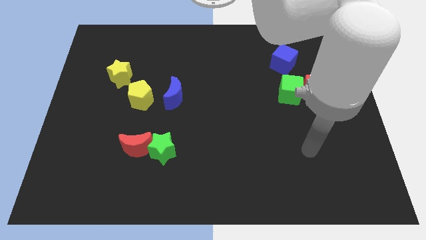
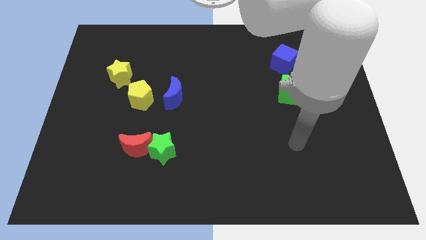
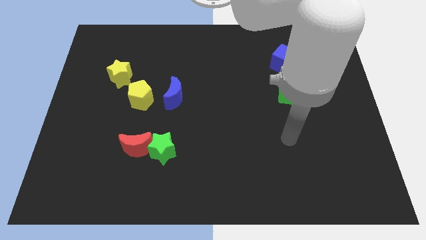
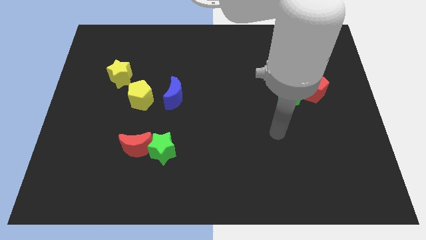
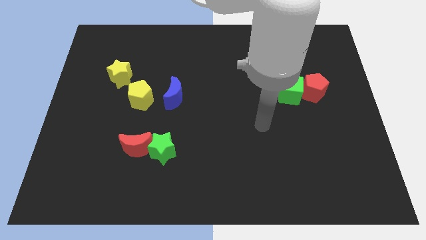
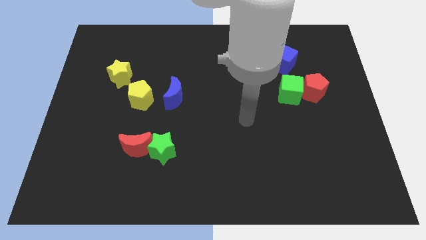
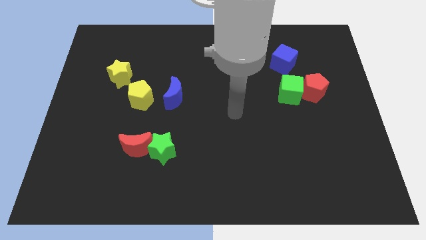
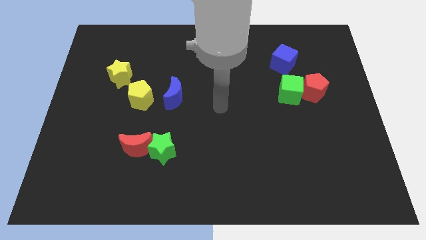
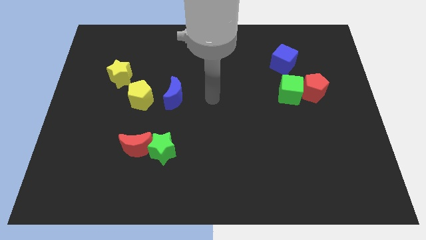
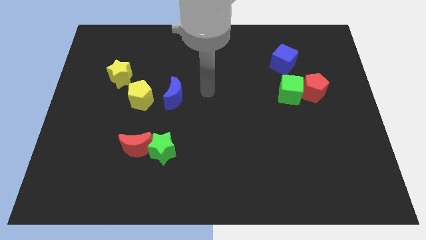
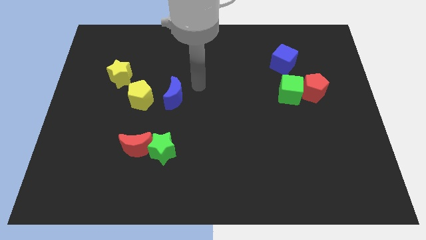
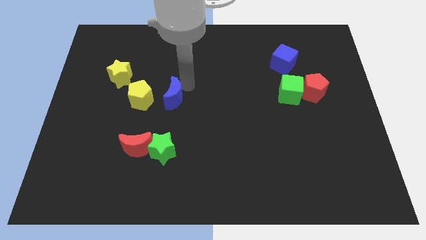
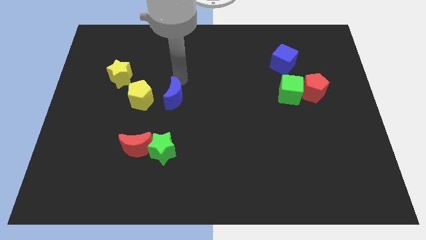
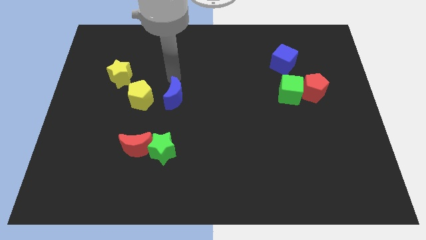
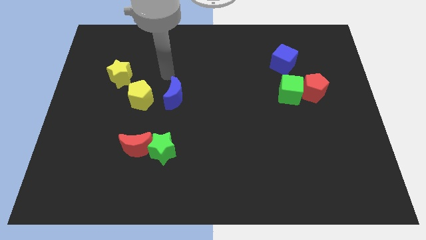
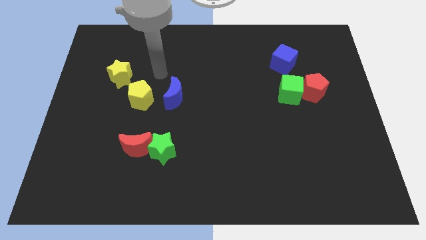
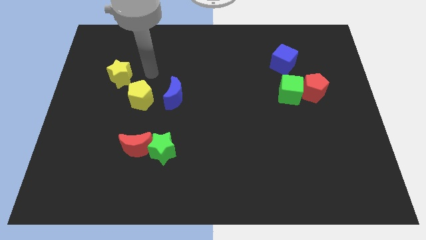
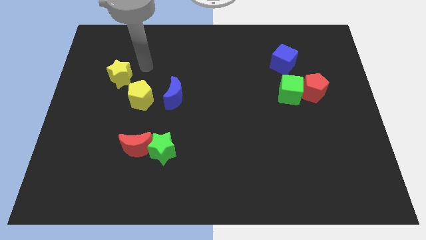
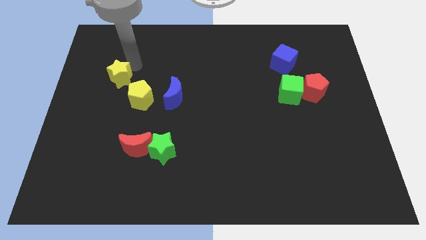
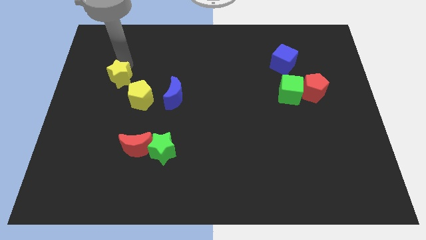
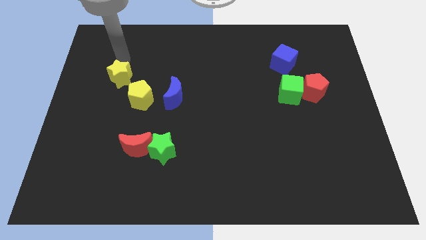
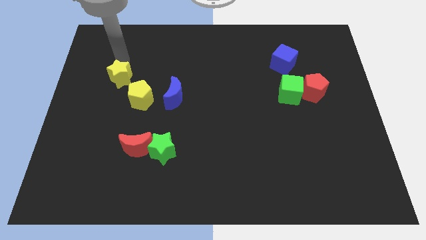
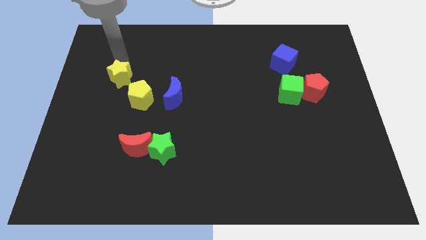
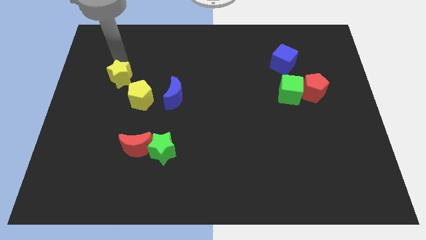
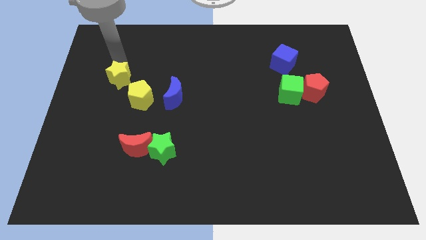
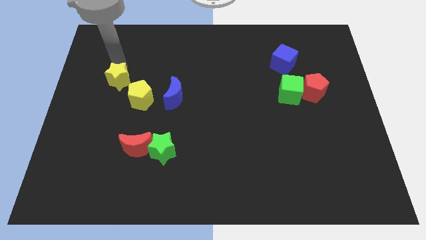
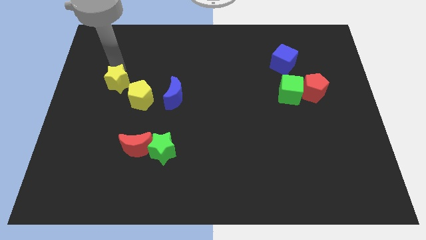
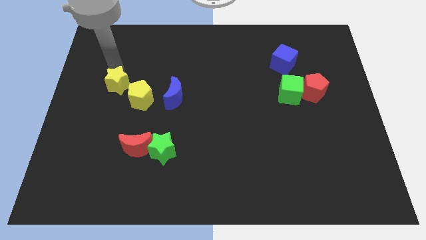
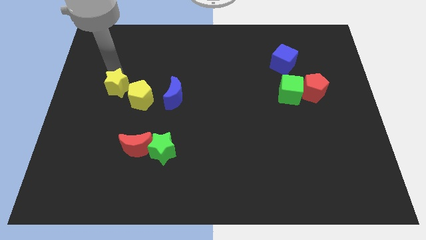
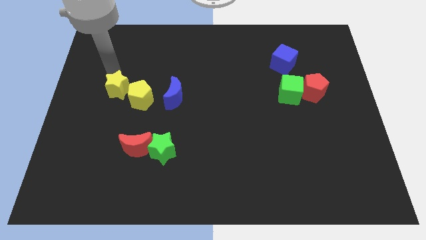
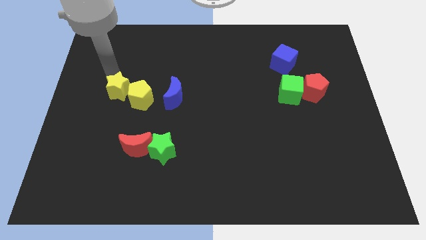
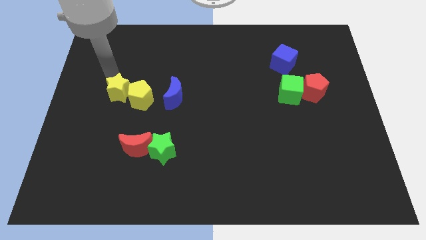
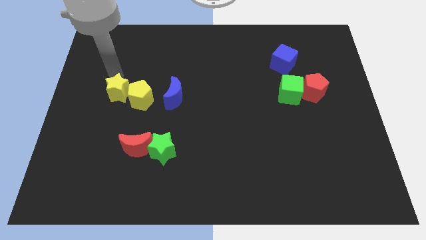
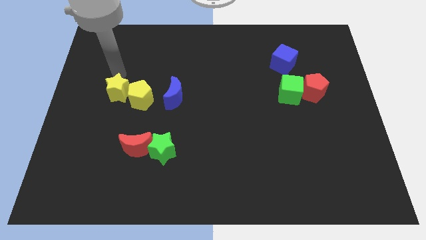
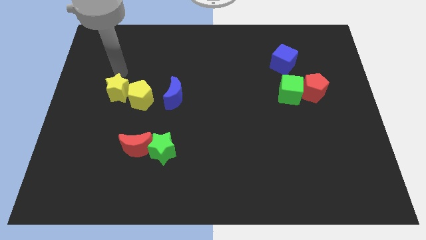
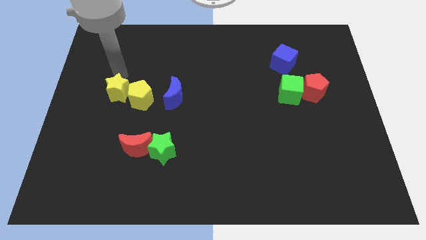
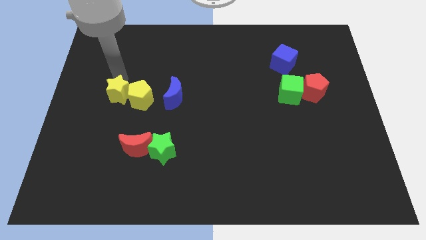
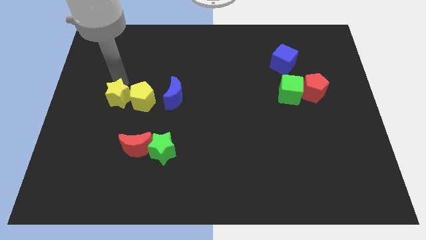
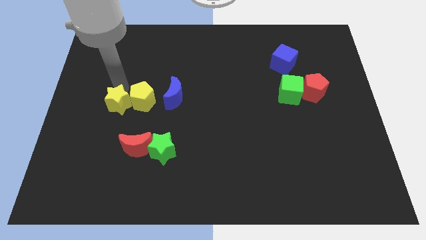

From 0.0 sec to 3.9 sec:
move the yellow star a bit downwards

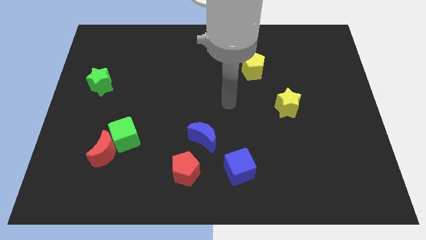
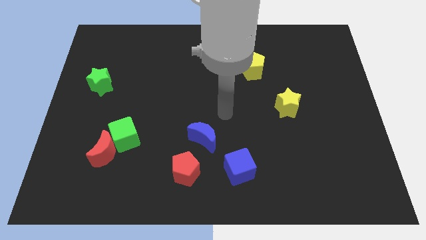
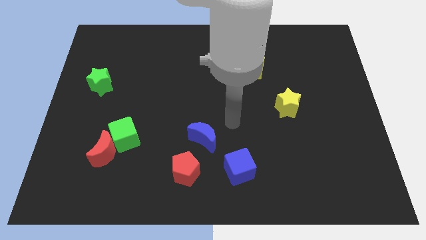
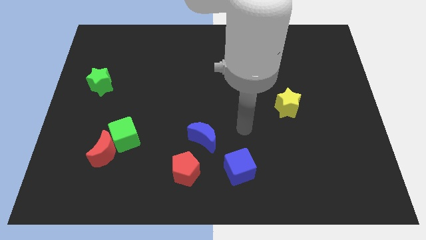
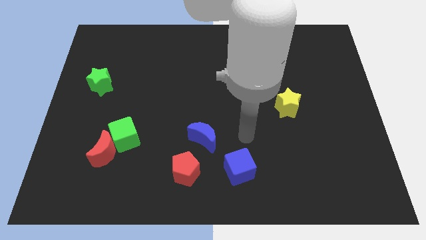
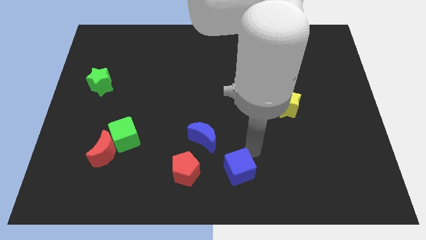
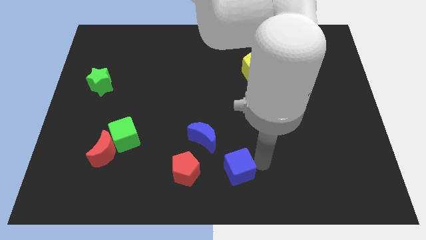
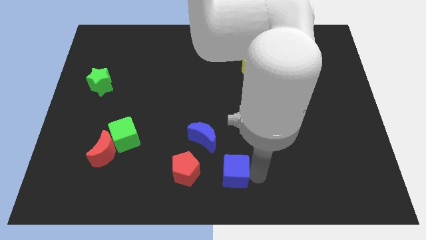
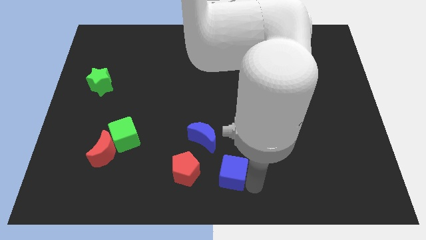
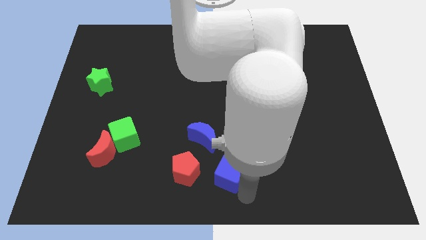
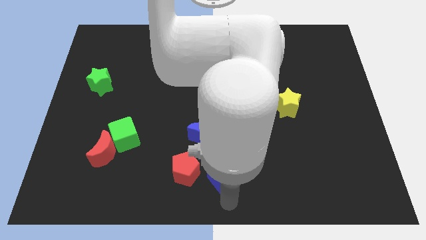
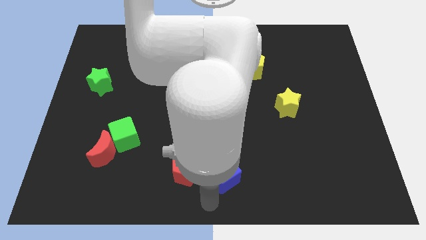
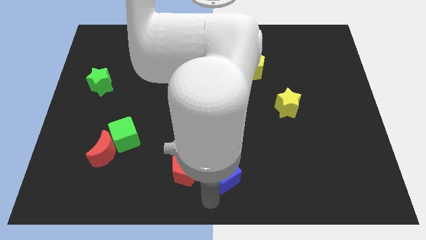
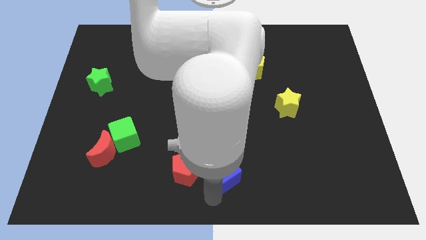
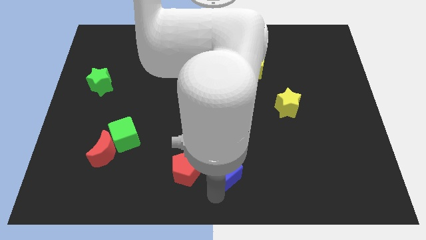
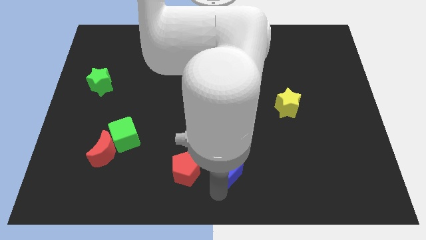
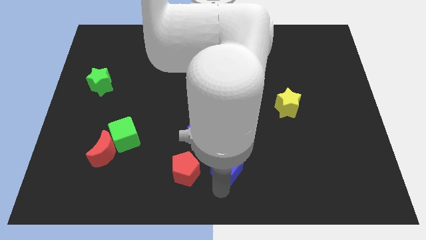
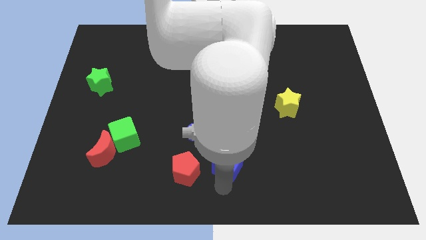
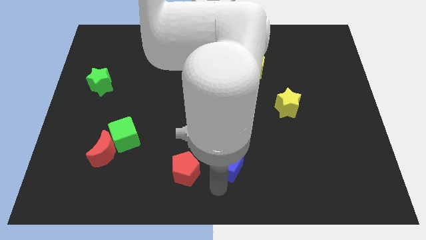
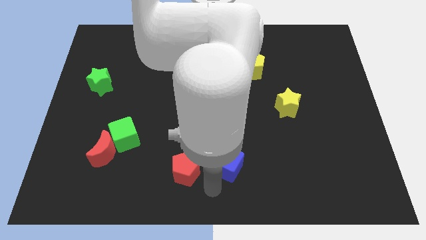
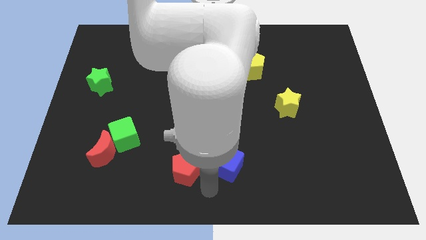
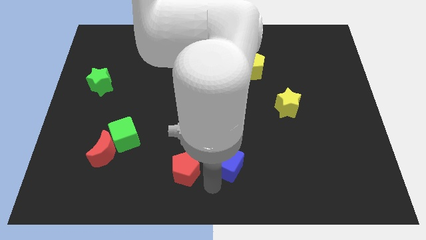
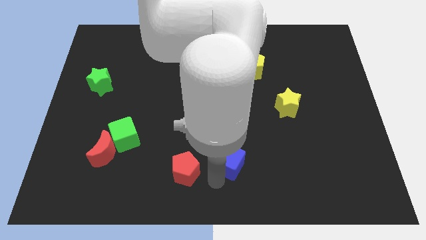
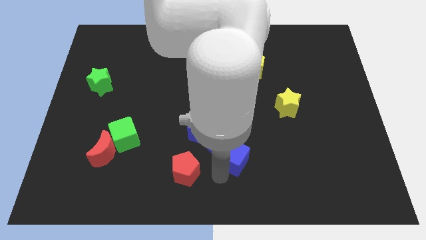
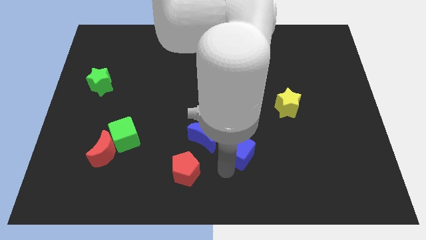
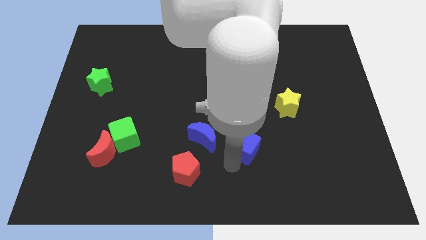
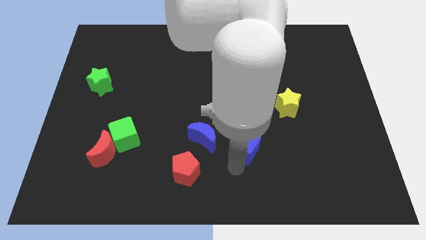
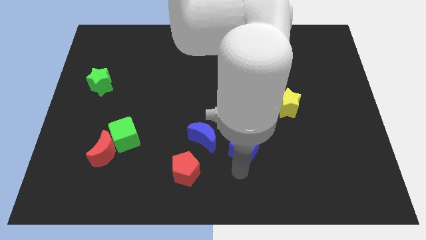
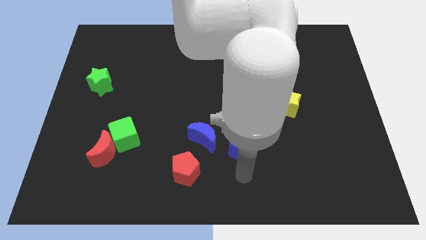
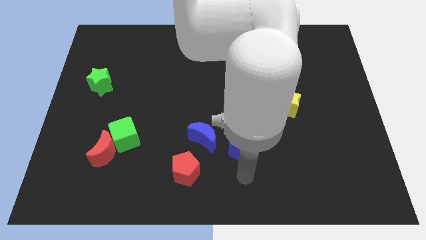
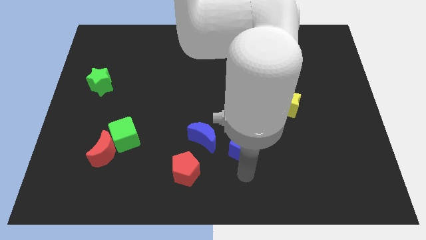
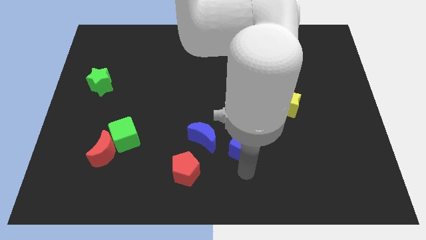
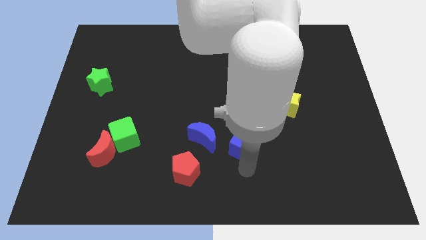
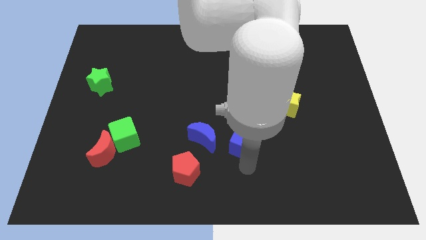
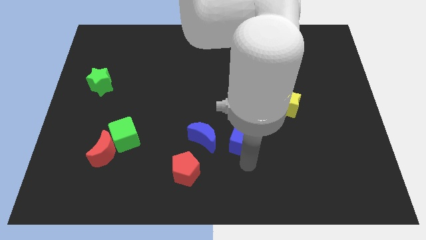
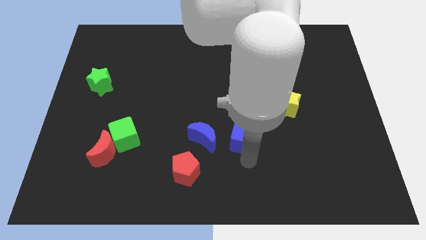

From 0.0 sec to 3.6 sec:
slightly move the blue cube upwards

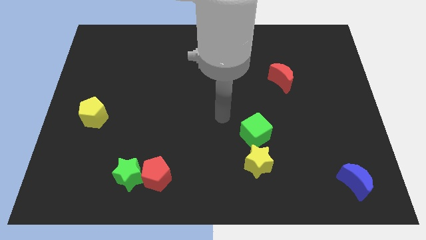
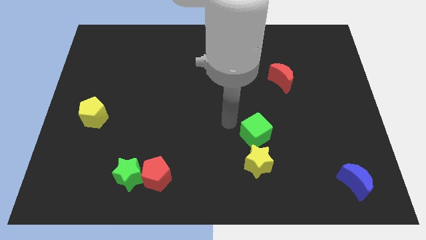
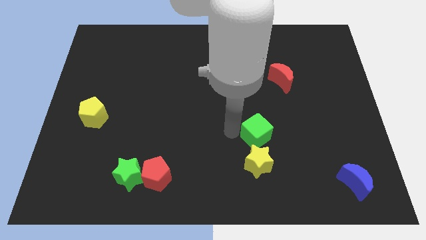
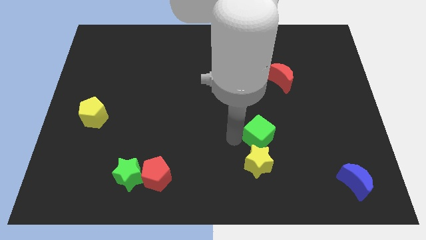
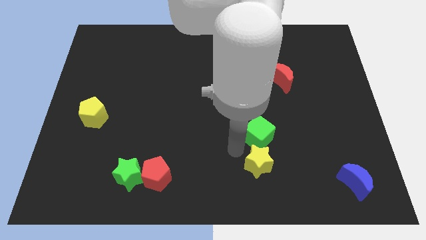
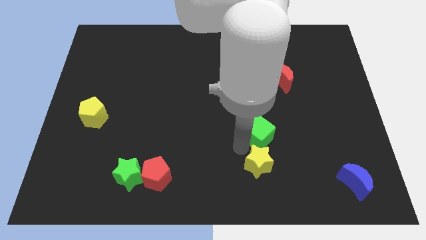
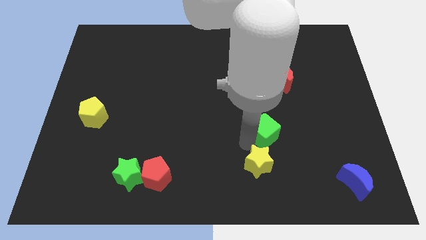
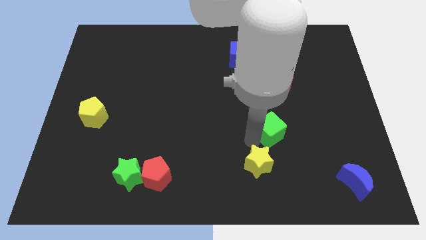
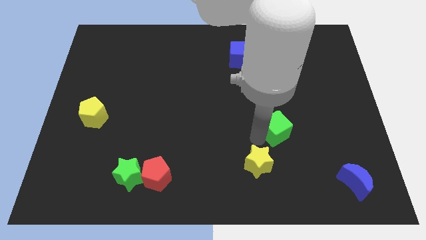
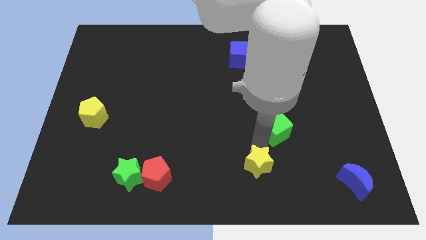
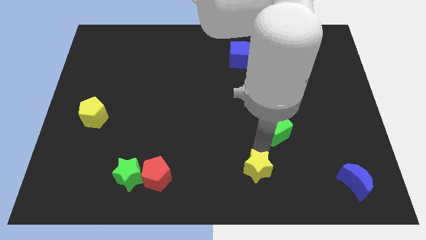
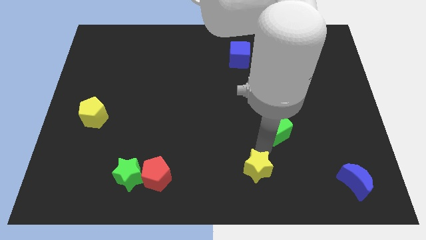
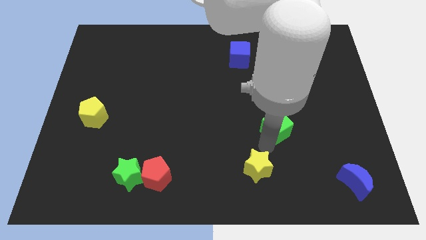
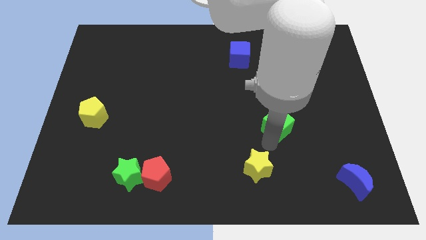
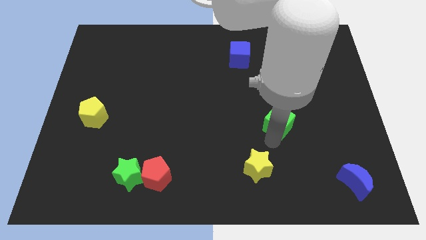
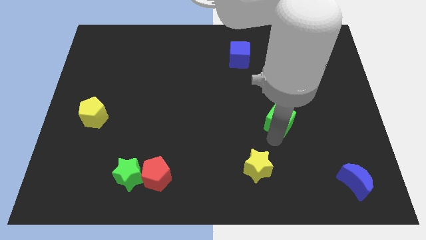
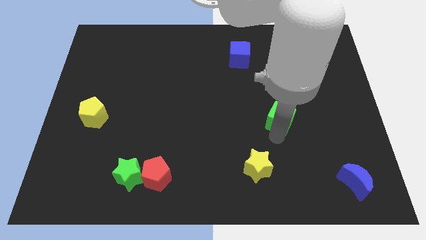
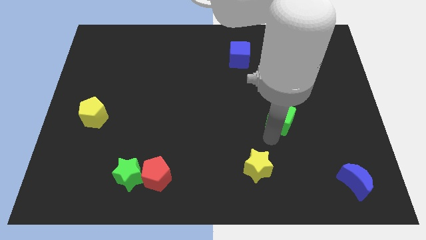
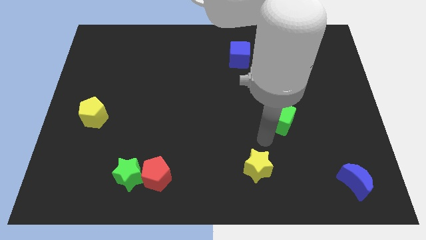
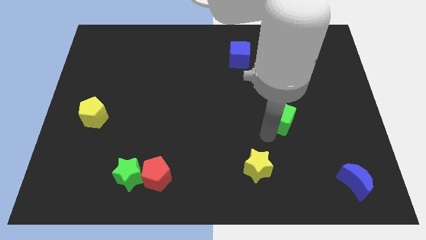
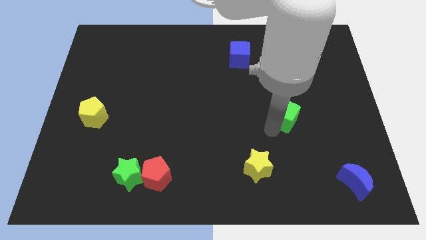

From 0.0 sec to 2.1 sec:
move the green cube a little up and then right
